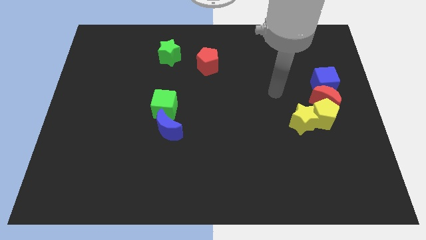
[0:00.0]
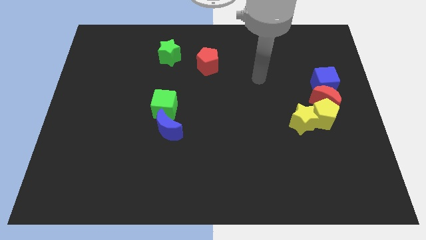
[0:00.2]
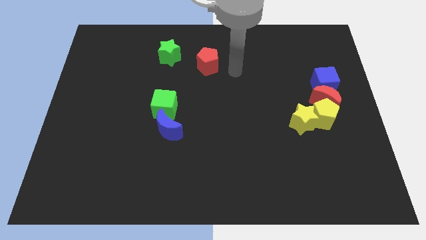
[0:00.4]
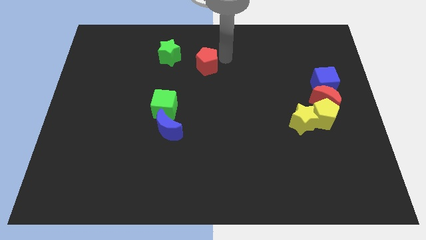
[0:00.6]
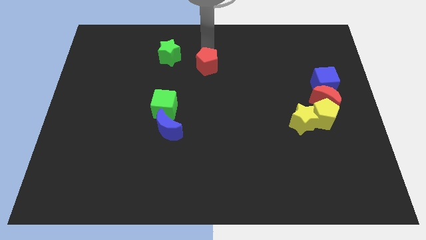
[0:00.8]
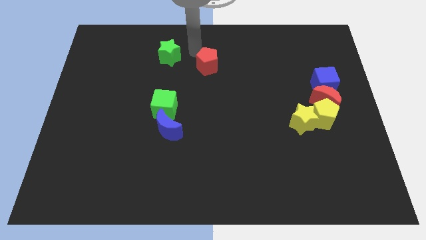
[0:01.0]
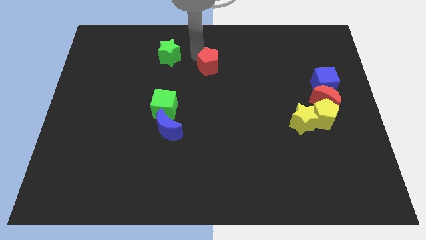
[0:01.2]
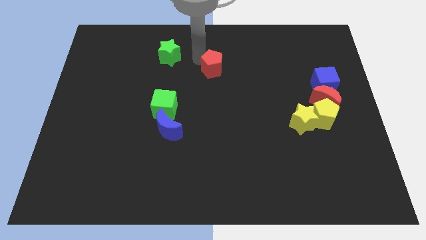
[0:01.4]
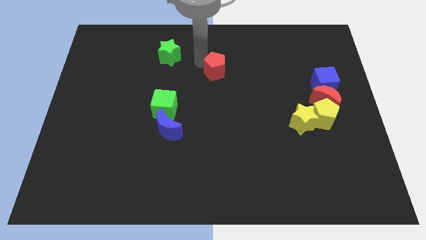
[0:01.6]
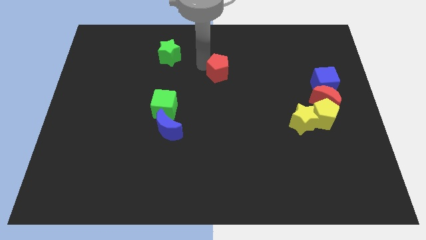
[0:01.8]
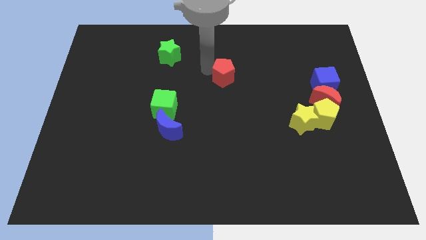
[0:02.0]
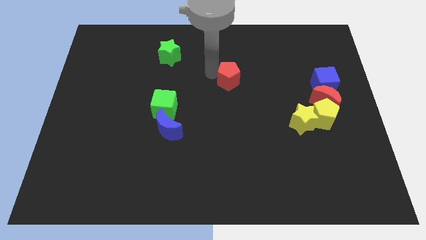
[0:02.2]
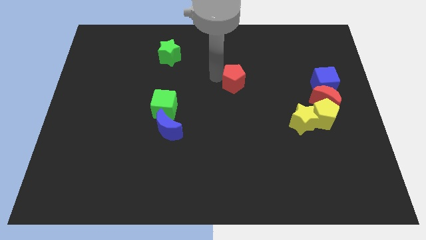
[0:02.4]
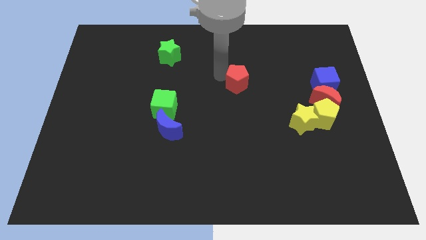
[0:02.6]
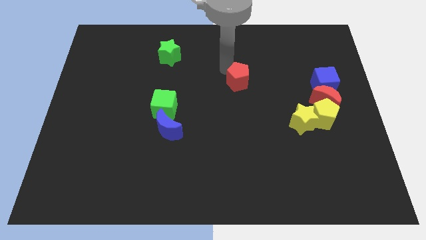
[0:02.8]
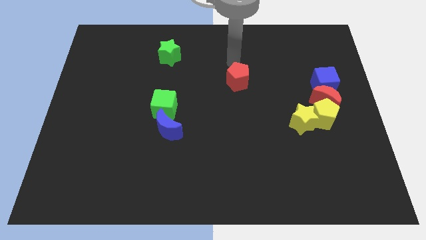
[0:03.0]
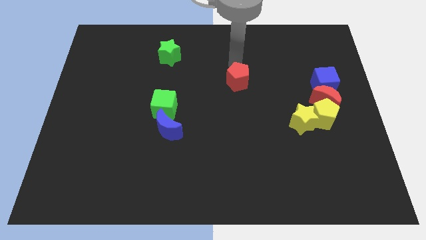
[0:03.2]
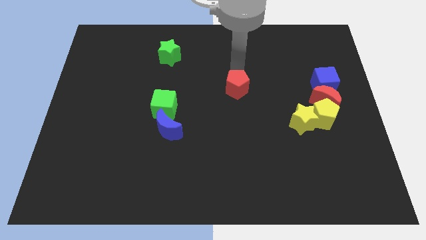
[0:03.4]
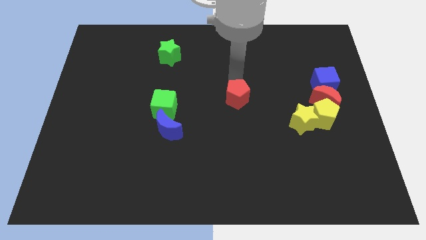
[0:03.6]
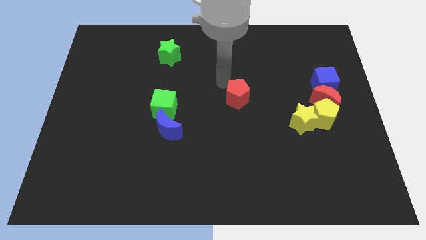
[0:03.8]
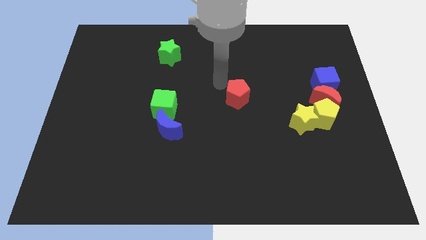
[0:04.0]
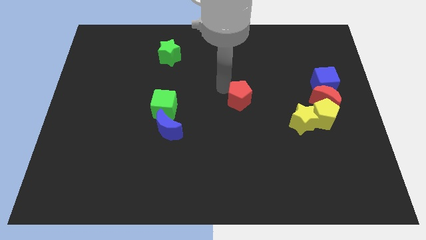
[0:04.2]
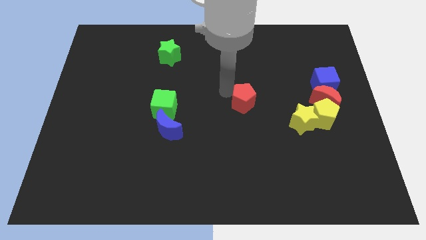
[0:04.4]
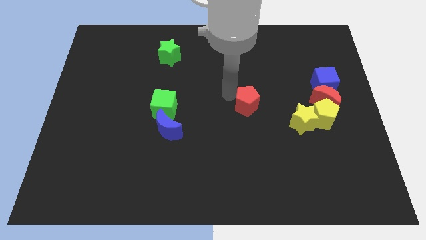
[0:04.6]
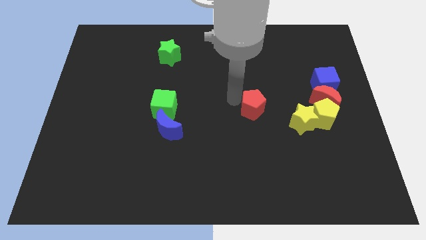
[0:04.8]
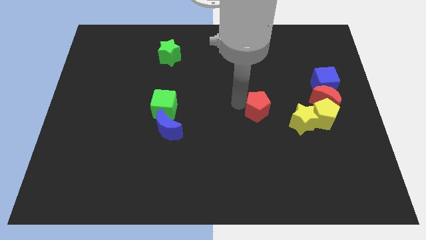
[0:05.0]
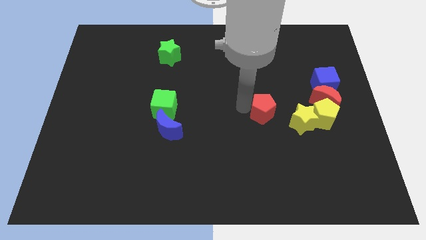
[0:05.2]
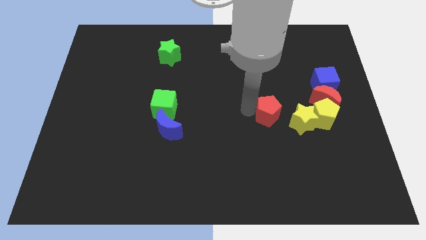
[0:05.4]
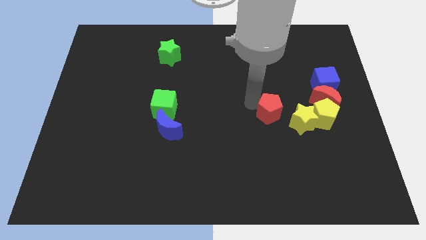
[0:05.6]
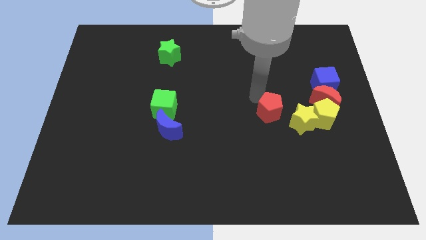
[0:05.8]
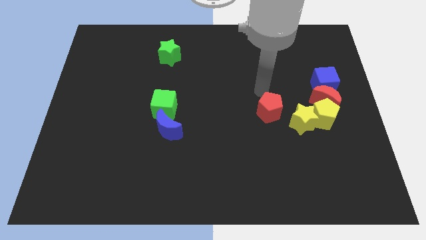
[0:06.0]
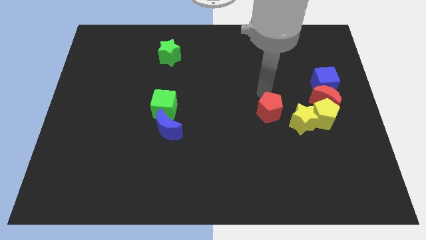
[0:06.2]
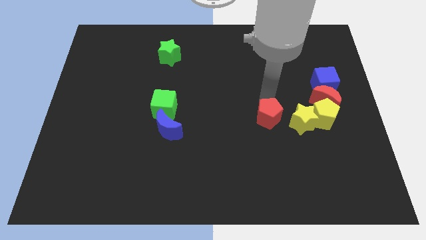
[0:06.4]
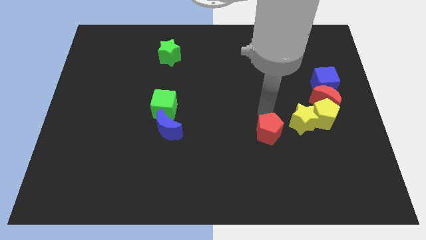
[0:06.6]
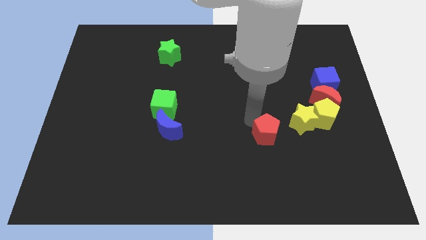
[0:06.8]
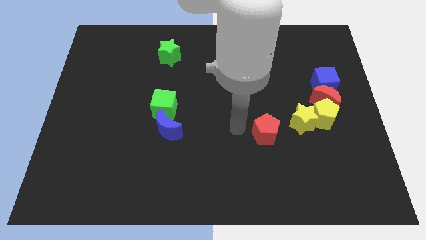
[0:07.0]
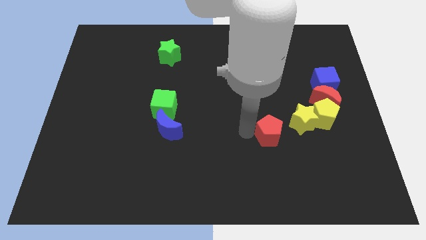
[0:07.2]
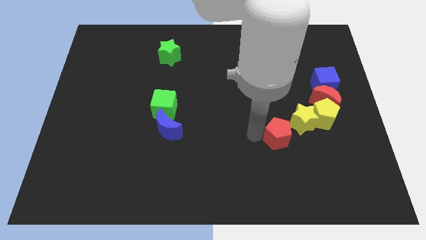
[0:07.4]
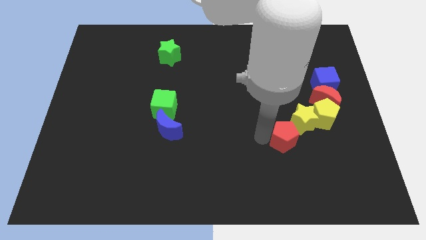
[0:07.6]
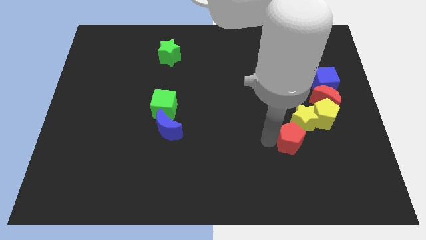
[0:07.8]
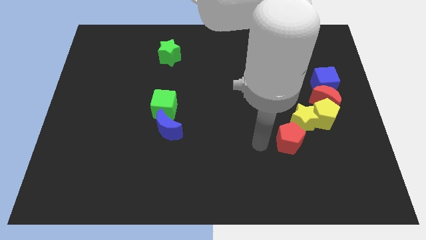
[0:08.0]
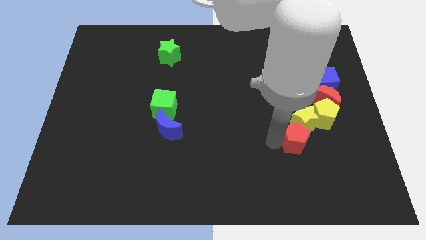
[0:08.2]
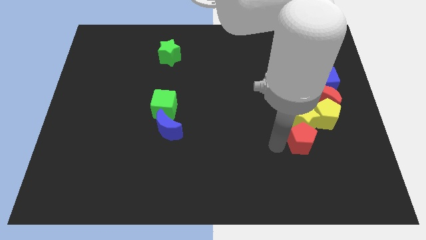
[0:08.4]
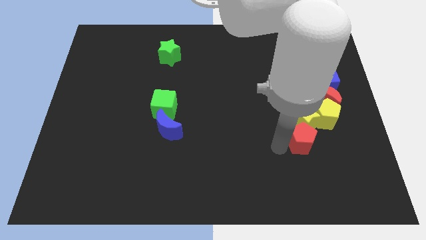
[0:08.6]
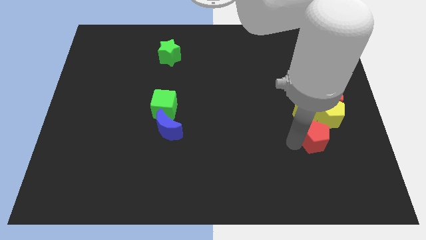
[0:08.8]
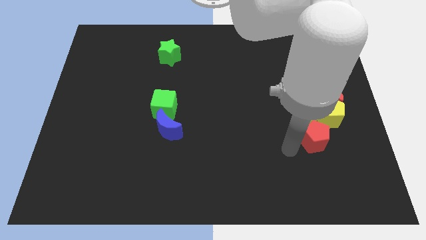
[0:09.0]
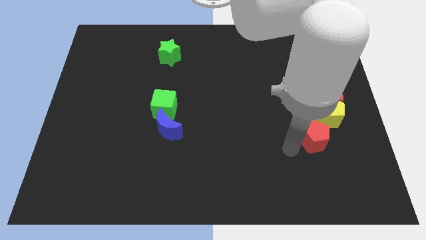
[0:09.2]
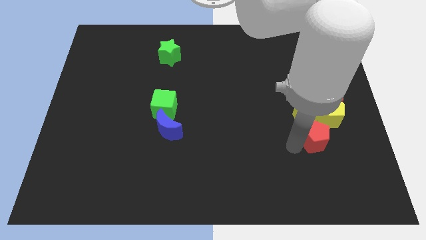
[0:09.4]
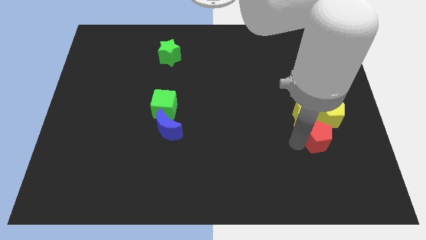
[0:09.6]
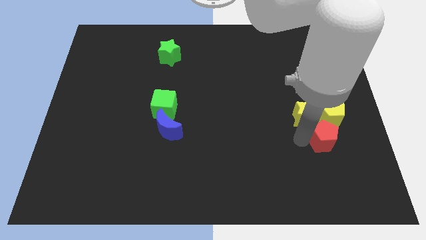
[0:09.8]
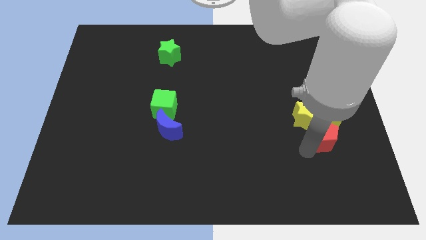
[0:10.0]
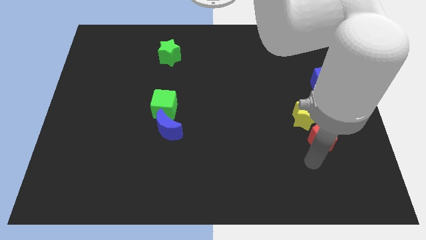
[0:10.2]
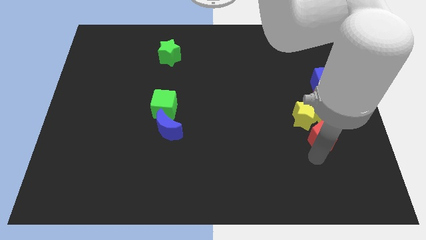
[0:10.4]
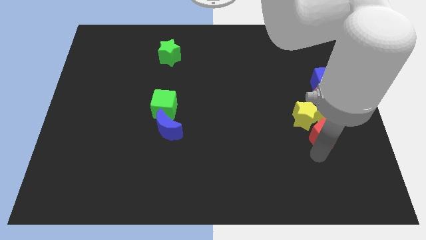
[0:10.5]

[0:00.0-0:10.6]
push the red pentagon to the yellow pentagon

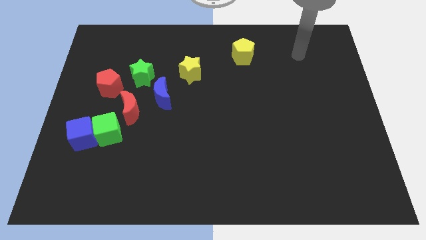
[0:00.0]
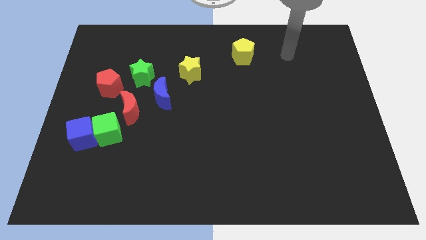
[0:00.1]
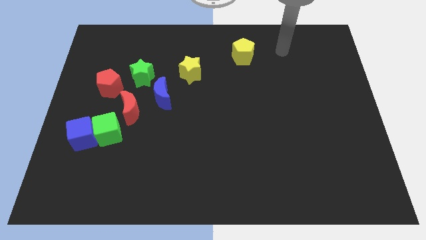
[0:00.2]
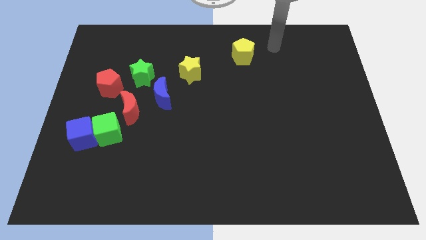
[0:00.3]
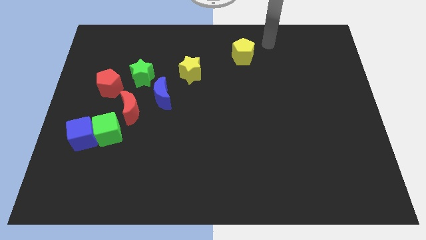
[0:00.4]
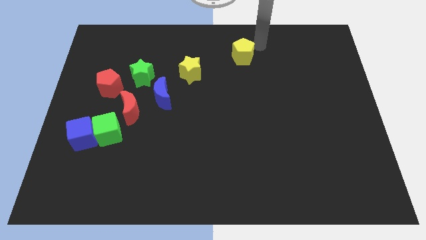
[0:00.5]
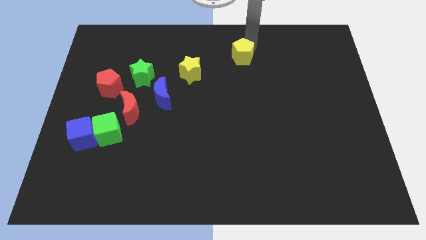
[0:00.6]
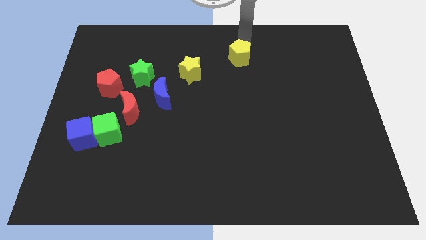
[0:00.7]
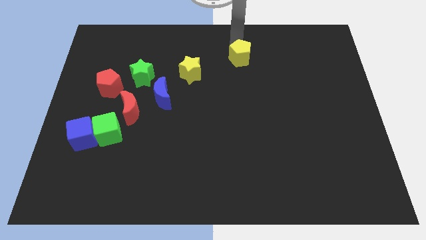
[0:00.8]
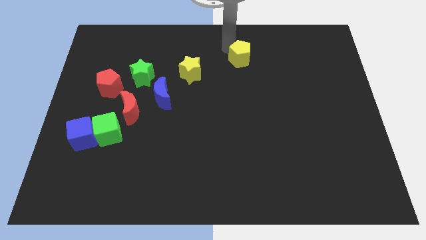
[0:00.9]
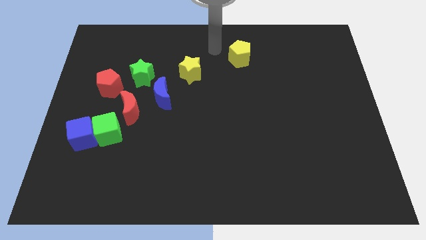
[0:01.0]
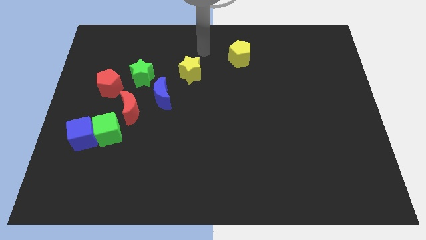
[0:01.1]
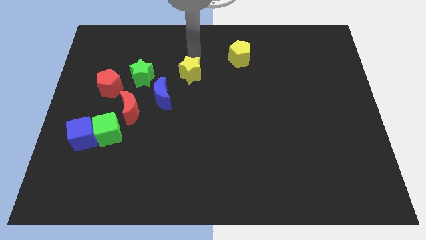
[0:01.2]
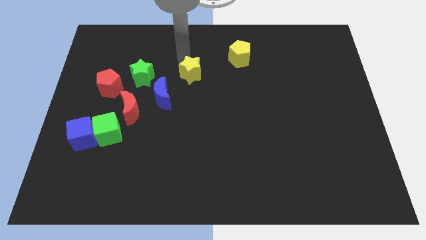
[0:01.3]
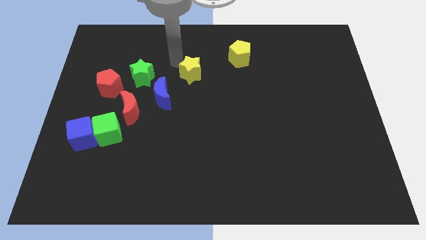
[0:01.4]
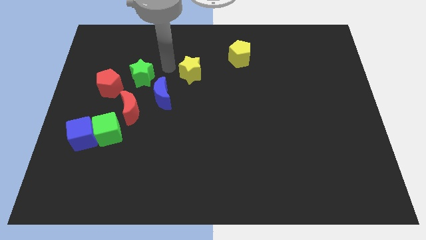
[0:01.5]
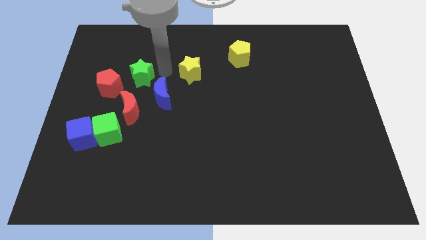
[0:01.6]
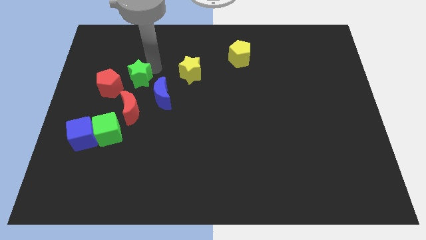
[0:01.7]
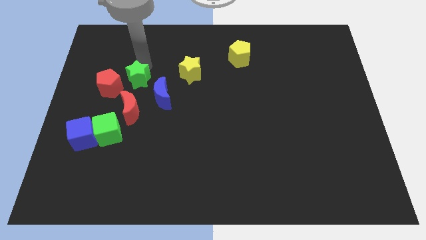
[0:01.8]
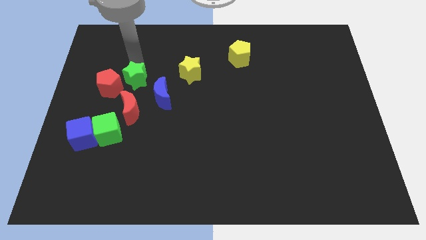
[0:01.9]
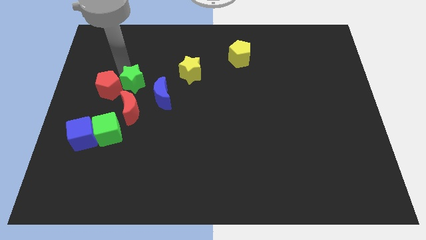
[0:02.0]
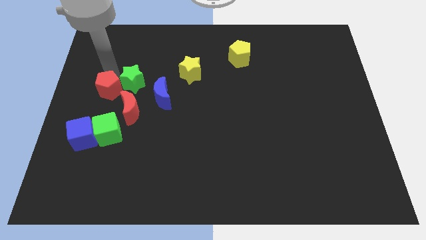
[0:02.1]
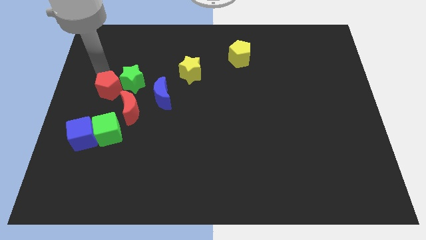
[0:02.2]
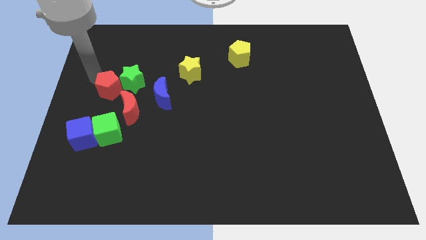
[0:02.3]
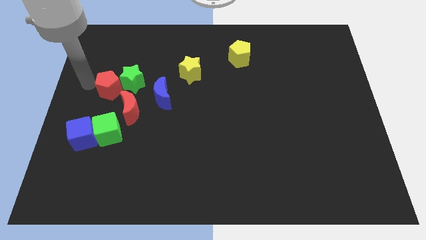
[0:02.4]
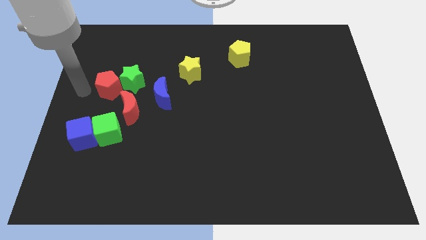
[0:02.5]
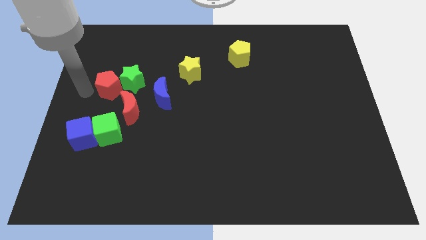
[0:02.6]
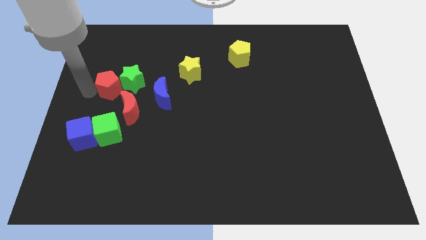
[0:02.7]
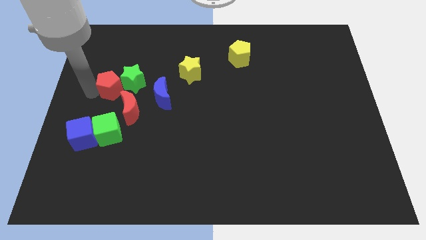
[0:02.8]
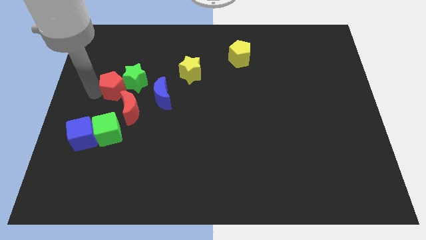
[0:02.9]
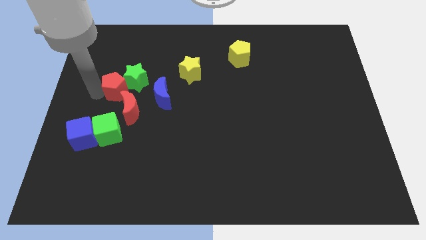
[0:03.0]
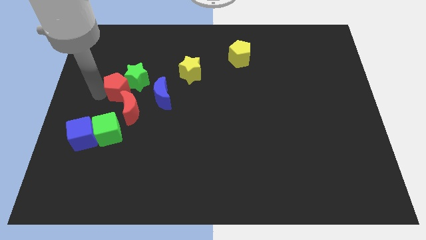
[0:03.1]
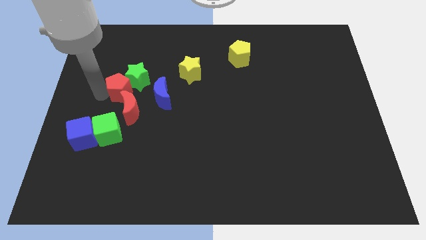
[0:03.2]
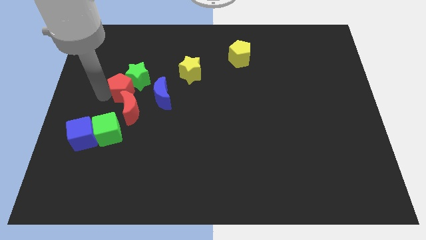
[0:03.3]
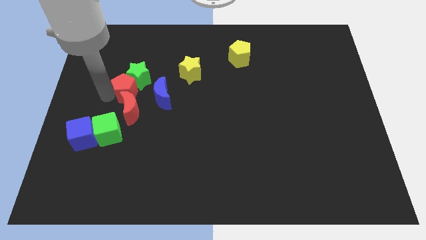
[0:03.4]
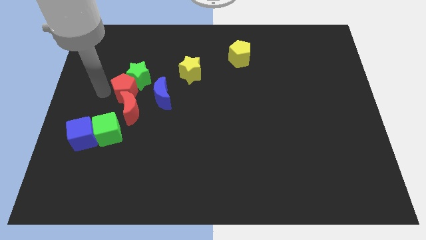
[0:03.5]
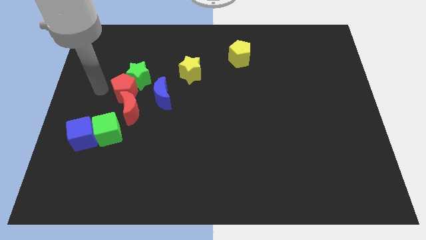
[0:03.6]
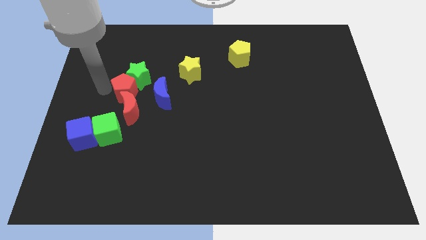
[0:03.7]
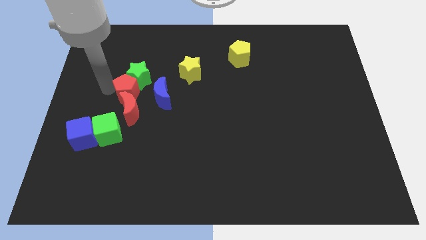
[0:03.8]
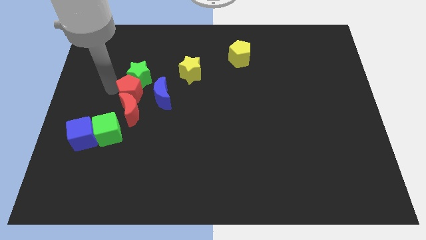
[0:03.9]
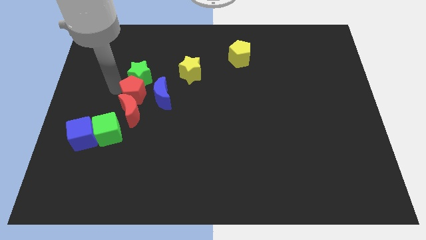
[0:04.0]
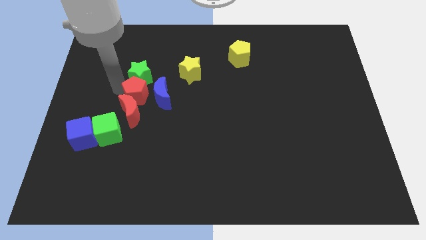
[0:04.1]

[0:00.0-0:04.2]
slide the red pentagon towards the blue moon
